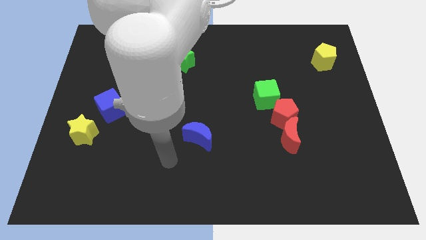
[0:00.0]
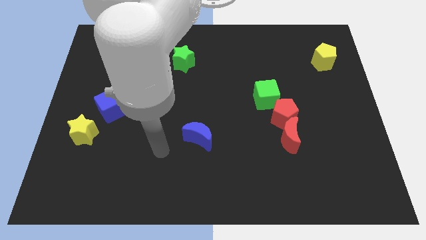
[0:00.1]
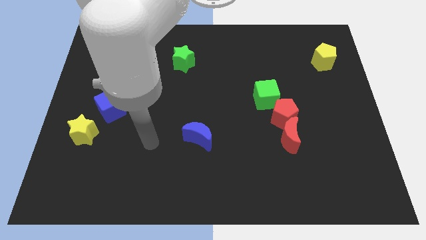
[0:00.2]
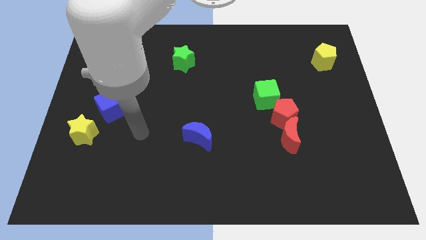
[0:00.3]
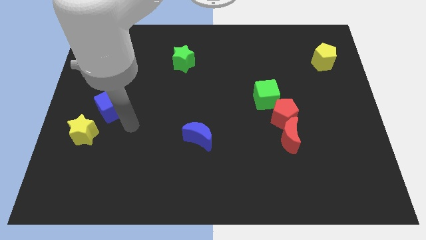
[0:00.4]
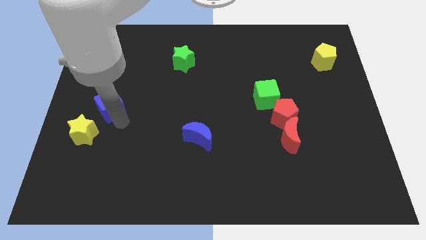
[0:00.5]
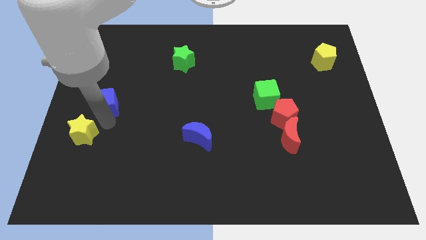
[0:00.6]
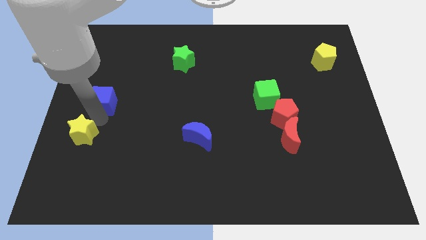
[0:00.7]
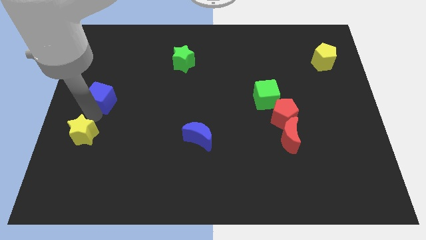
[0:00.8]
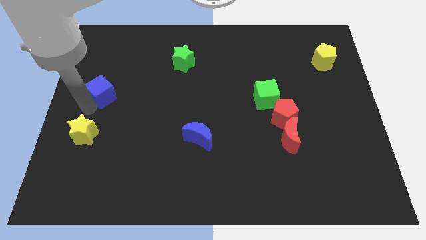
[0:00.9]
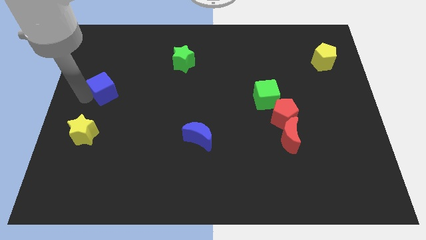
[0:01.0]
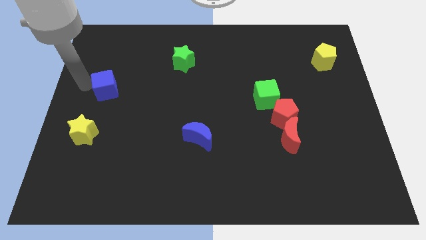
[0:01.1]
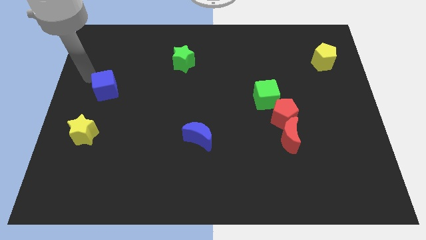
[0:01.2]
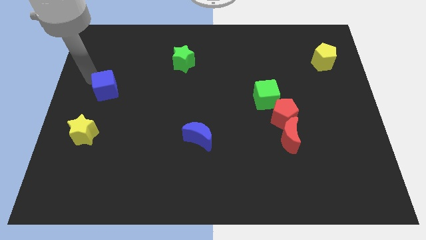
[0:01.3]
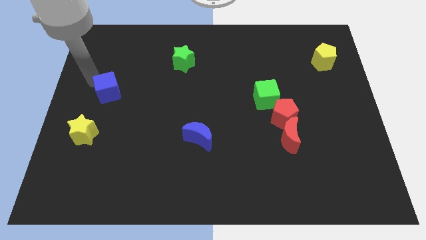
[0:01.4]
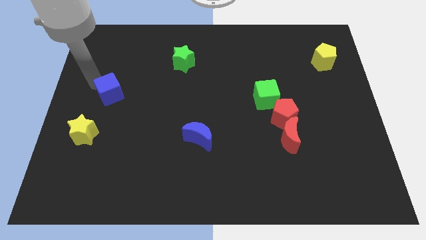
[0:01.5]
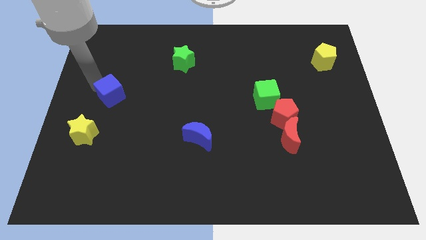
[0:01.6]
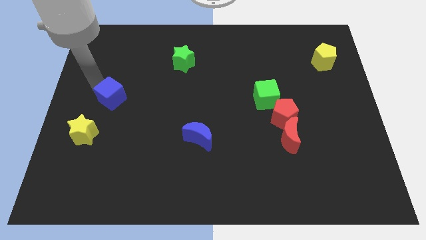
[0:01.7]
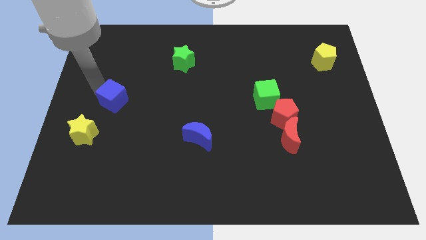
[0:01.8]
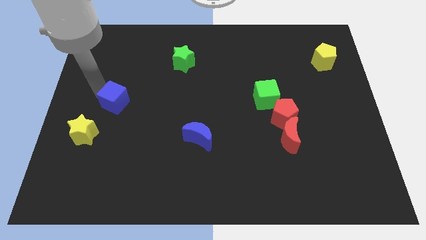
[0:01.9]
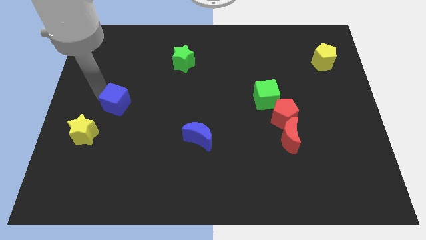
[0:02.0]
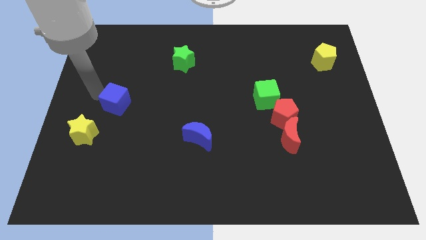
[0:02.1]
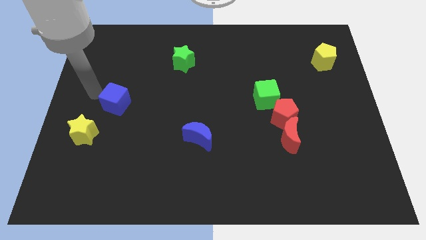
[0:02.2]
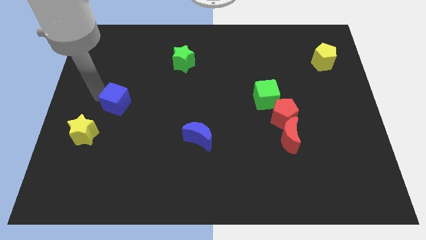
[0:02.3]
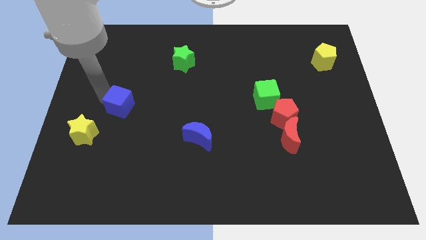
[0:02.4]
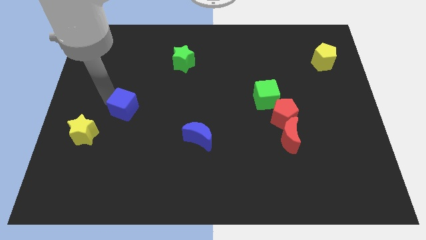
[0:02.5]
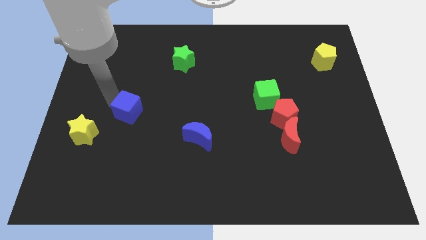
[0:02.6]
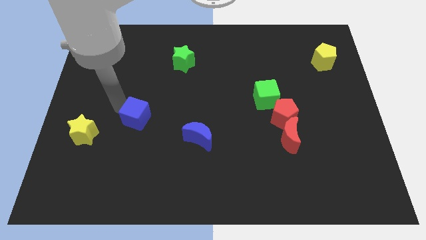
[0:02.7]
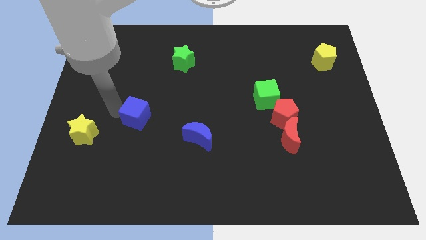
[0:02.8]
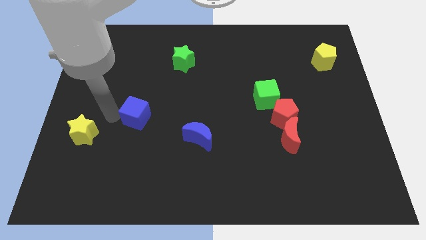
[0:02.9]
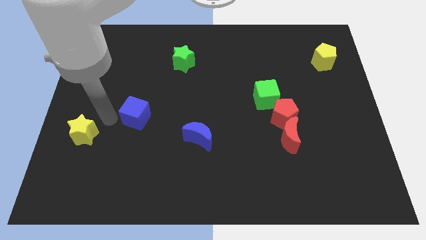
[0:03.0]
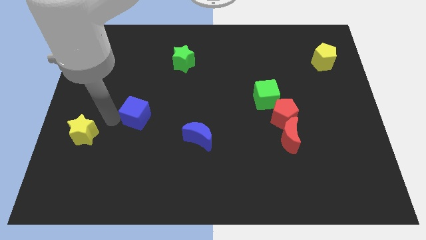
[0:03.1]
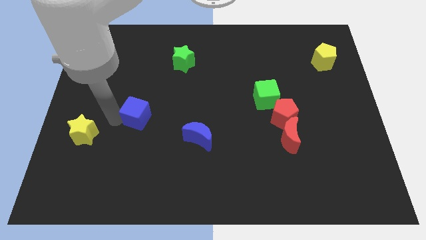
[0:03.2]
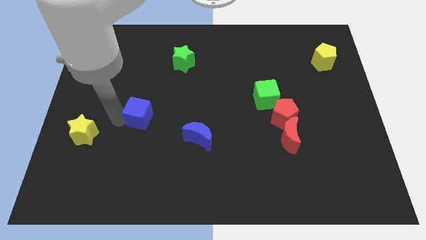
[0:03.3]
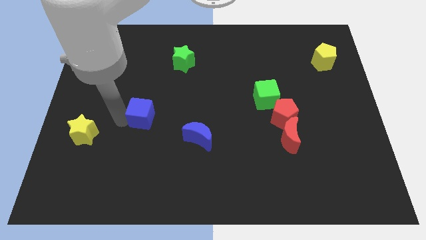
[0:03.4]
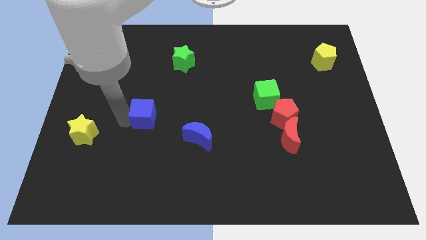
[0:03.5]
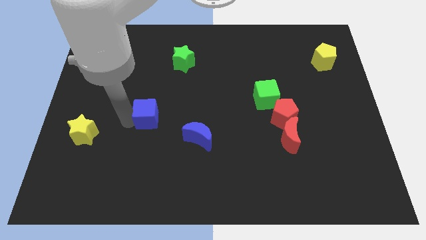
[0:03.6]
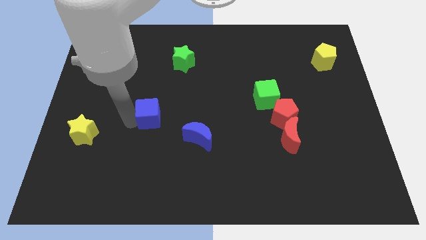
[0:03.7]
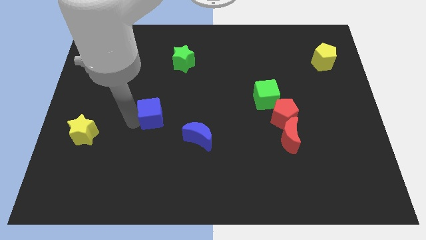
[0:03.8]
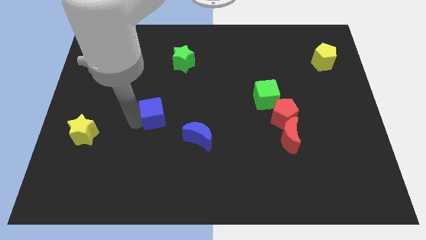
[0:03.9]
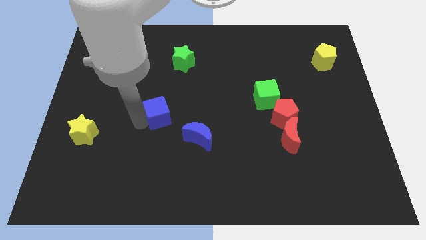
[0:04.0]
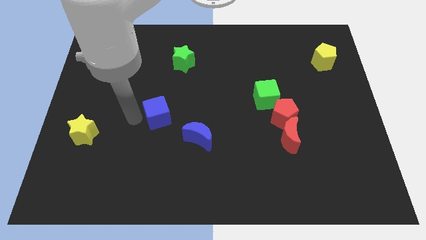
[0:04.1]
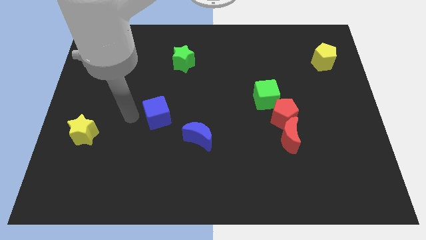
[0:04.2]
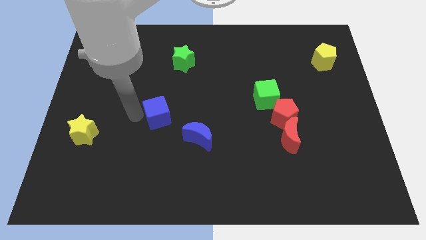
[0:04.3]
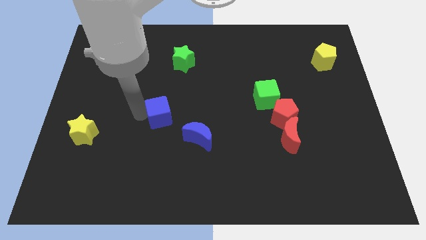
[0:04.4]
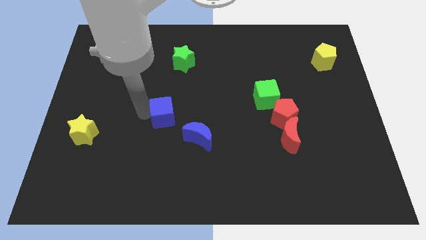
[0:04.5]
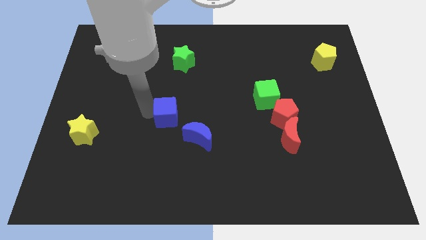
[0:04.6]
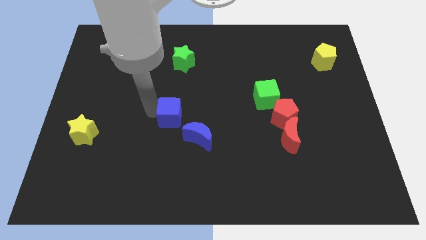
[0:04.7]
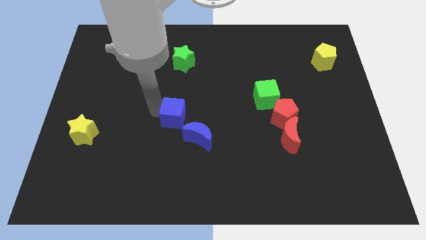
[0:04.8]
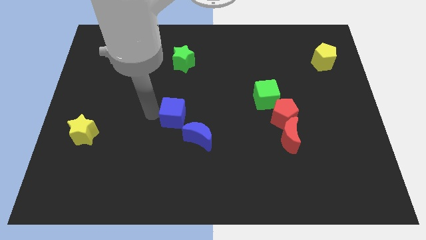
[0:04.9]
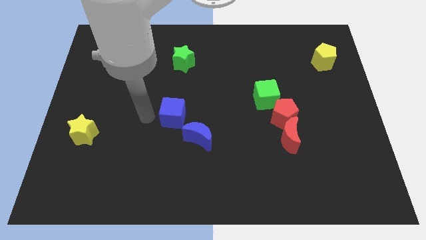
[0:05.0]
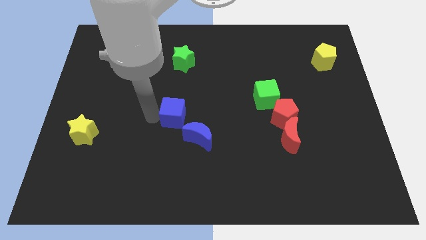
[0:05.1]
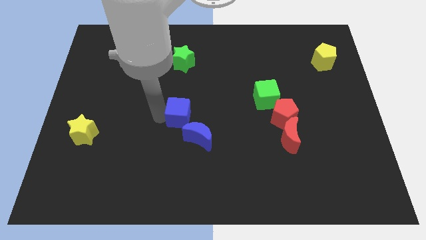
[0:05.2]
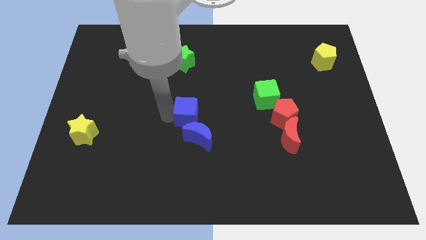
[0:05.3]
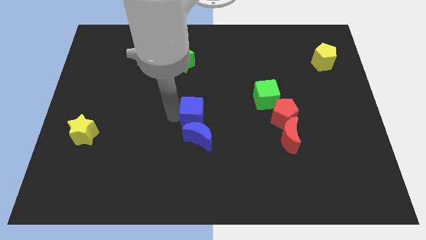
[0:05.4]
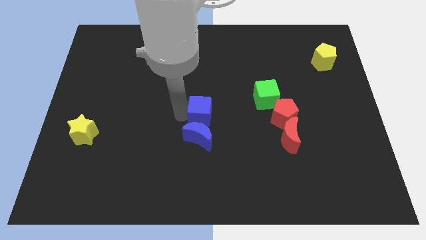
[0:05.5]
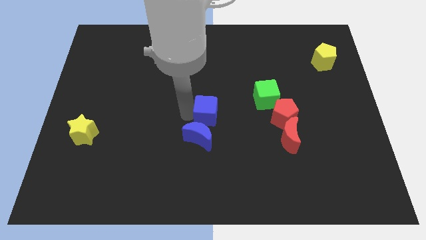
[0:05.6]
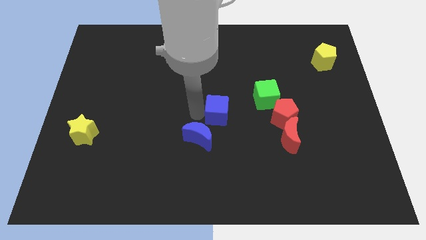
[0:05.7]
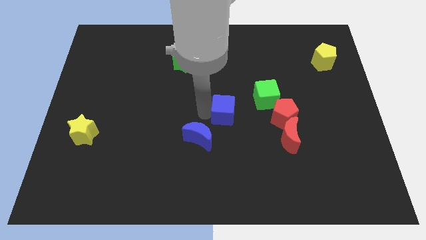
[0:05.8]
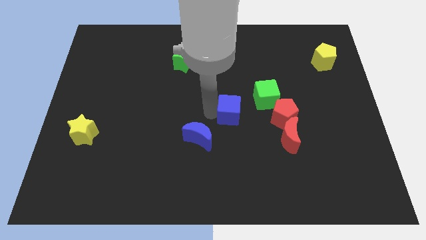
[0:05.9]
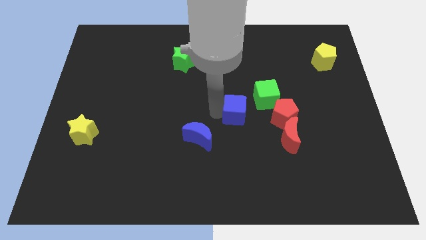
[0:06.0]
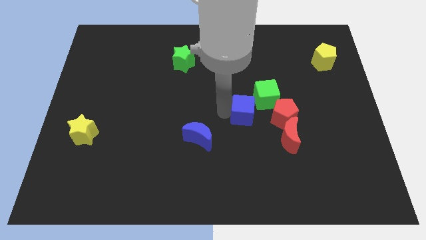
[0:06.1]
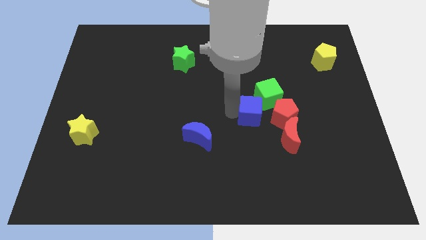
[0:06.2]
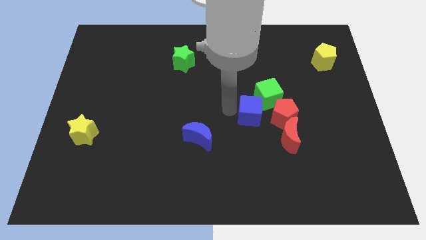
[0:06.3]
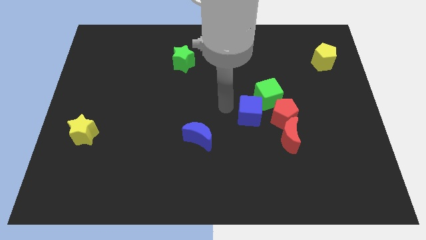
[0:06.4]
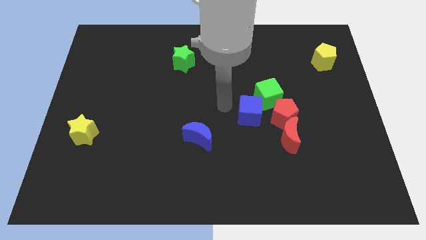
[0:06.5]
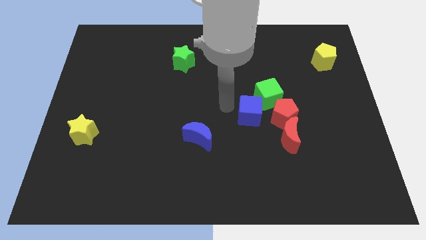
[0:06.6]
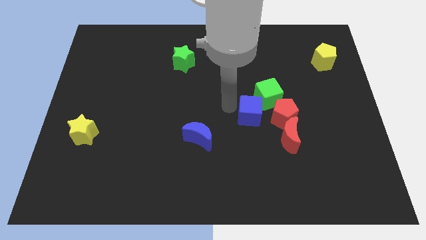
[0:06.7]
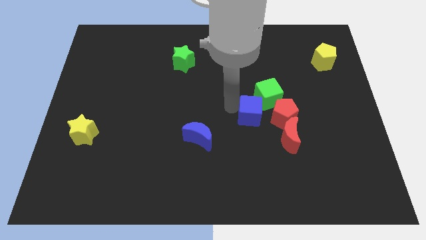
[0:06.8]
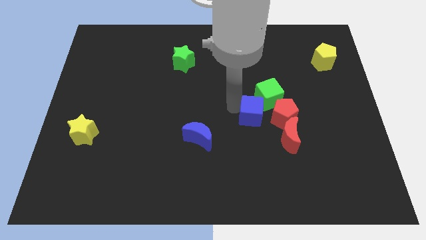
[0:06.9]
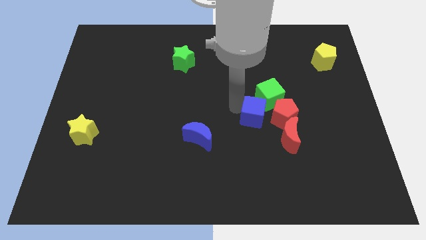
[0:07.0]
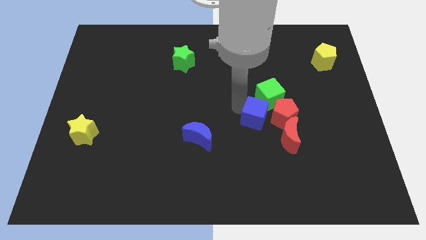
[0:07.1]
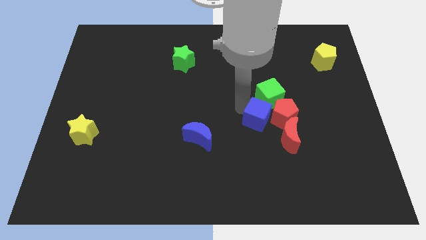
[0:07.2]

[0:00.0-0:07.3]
push the blue cube to the red pentagon
